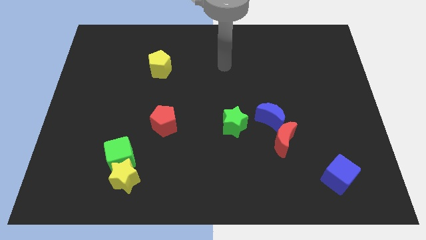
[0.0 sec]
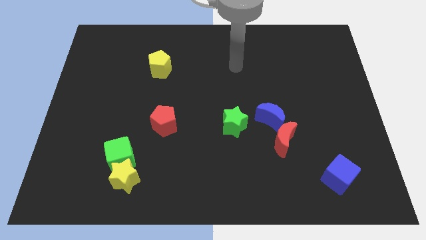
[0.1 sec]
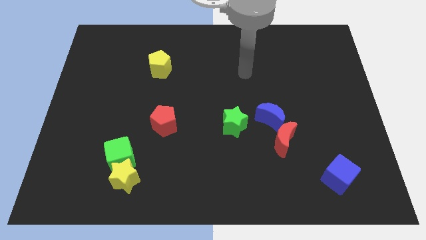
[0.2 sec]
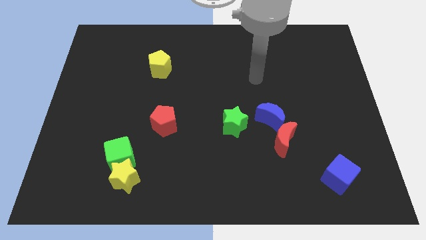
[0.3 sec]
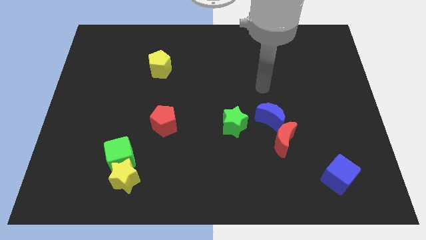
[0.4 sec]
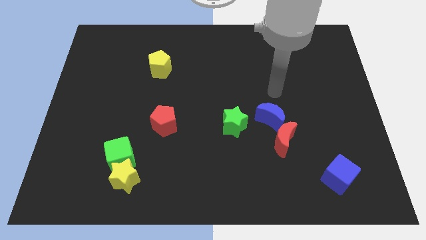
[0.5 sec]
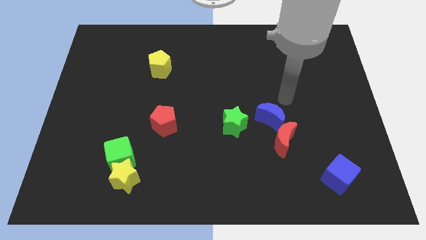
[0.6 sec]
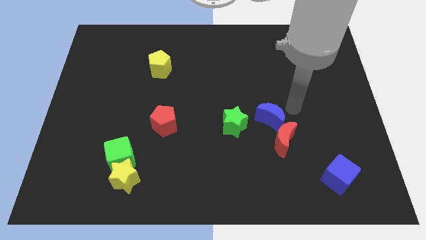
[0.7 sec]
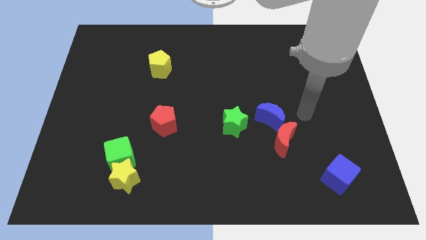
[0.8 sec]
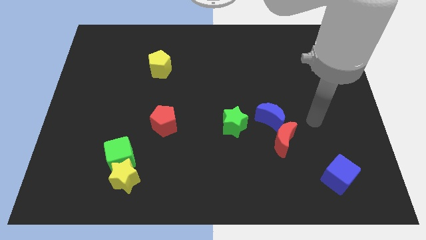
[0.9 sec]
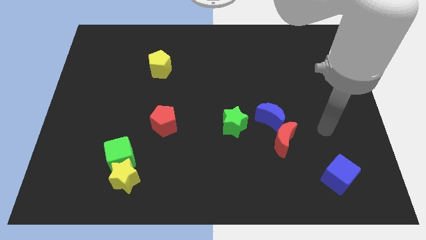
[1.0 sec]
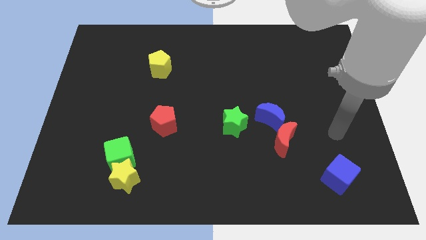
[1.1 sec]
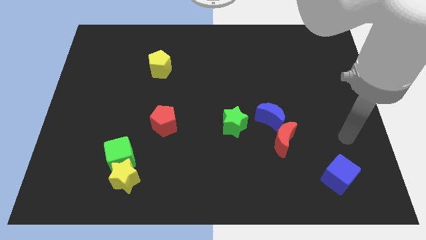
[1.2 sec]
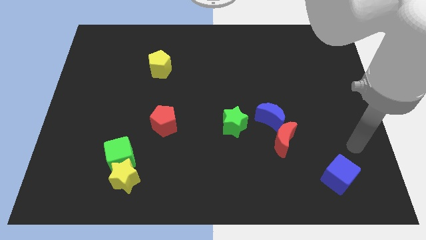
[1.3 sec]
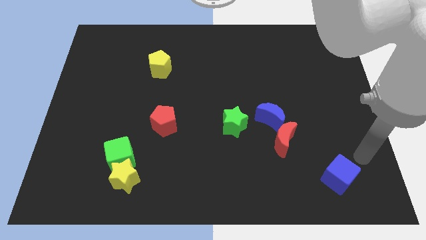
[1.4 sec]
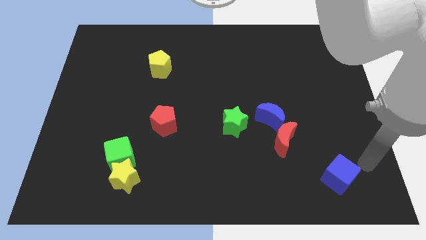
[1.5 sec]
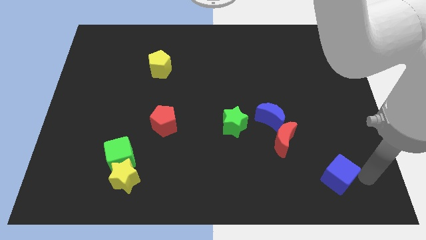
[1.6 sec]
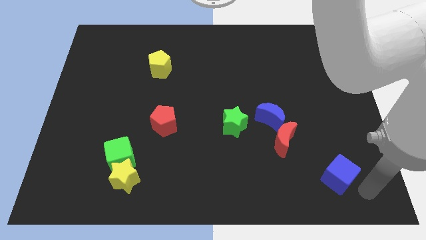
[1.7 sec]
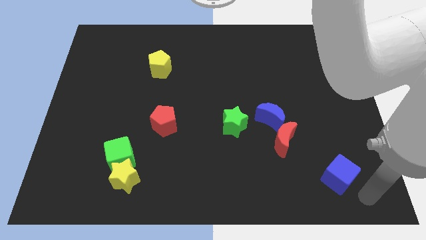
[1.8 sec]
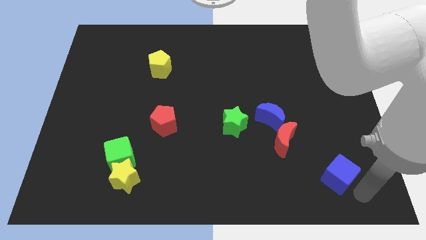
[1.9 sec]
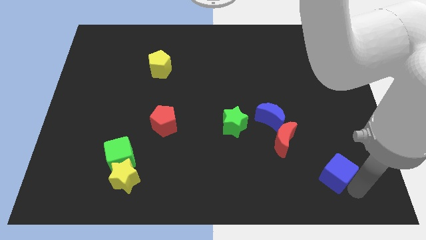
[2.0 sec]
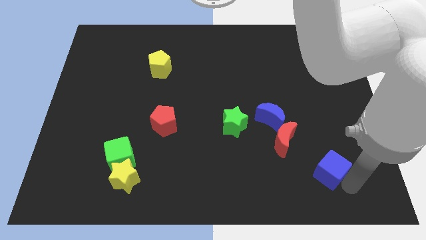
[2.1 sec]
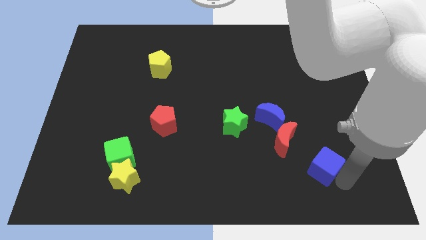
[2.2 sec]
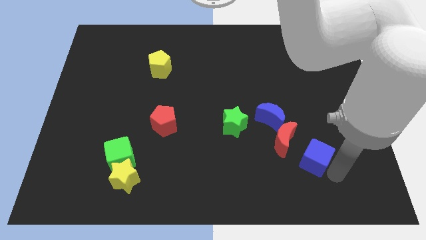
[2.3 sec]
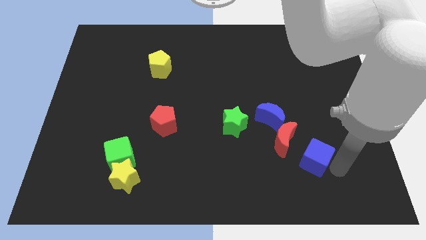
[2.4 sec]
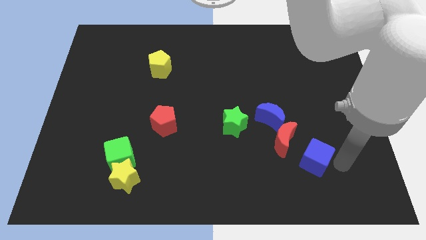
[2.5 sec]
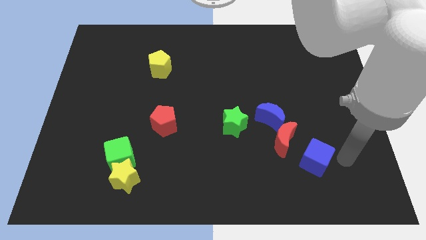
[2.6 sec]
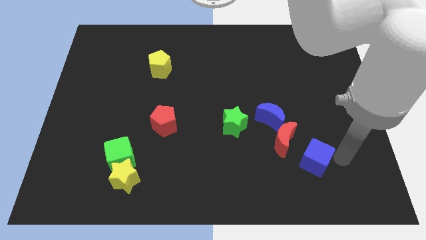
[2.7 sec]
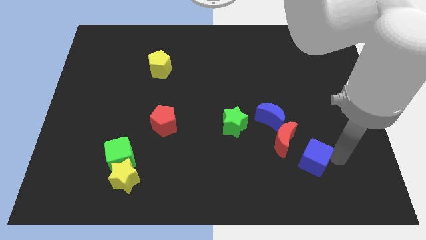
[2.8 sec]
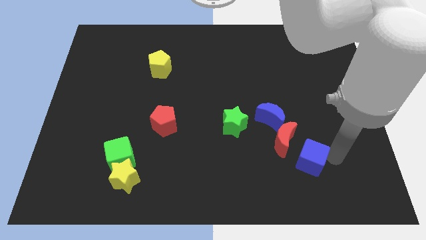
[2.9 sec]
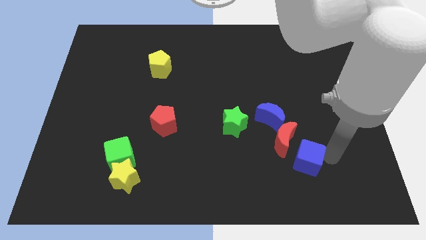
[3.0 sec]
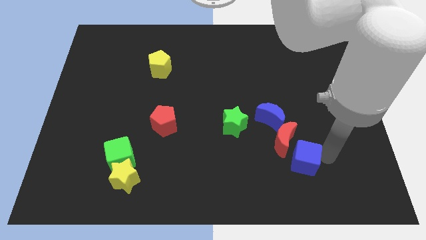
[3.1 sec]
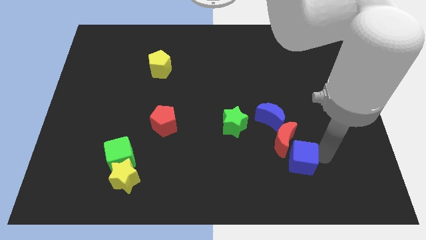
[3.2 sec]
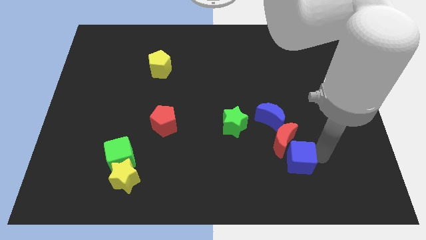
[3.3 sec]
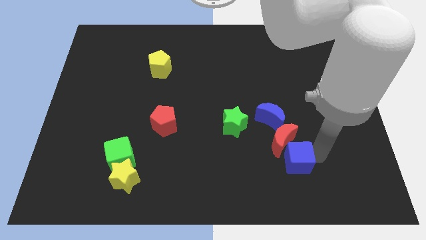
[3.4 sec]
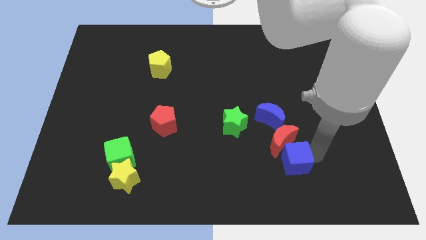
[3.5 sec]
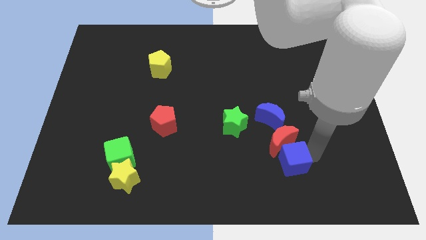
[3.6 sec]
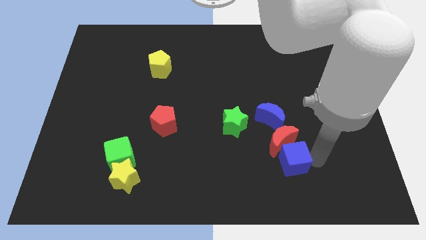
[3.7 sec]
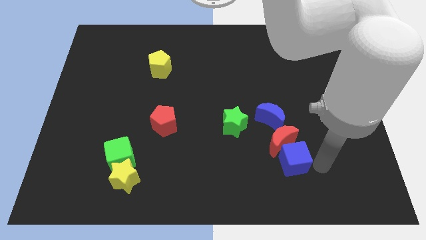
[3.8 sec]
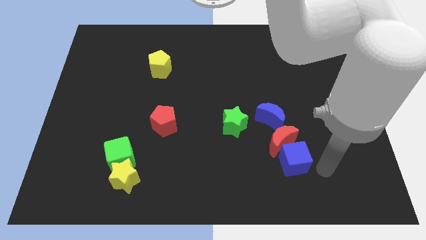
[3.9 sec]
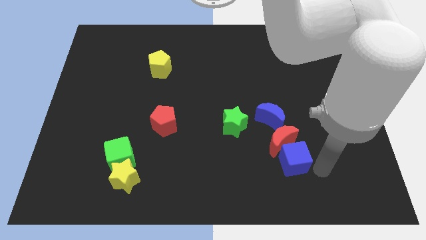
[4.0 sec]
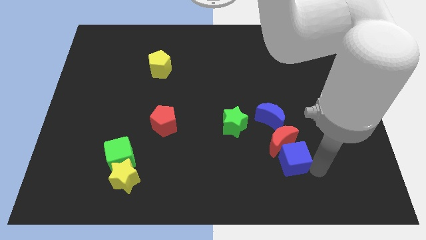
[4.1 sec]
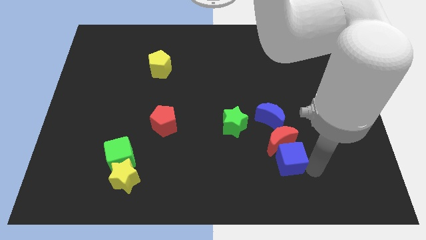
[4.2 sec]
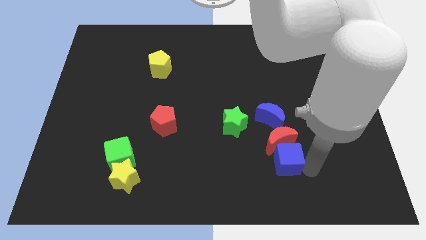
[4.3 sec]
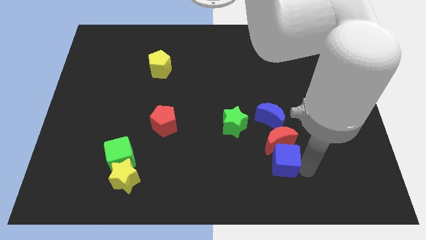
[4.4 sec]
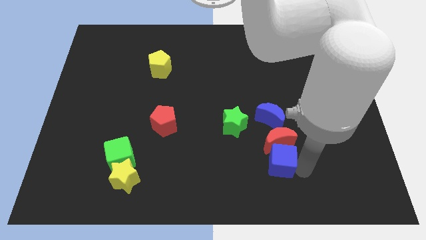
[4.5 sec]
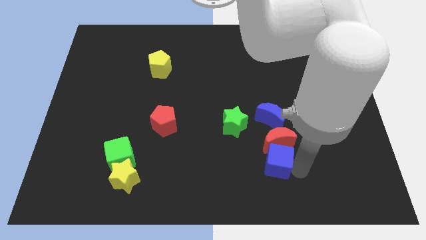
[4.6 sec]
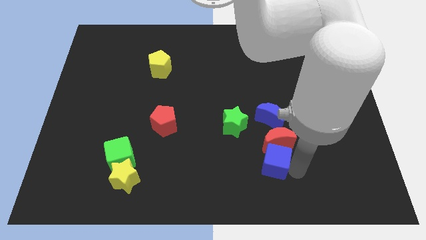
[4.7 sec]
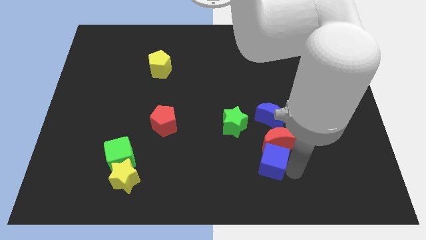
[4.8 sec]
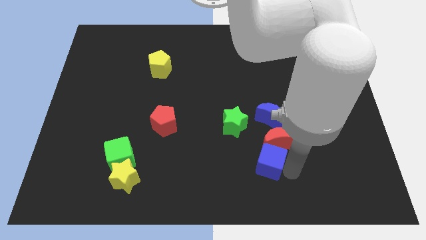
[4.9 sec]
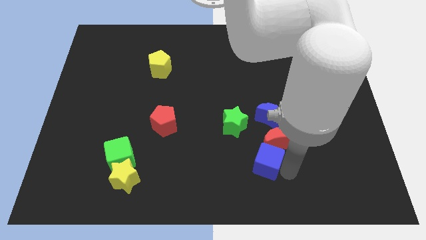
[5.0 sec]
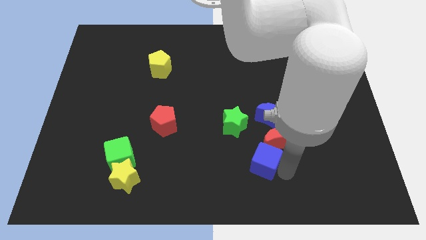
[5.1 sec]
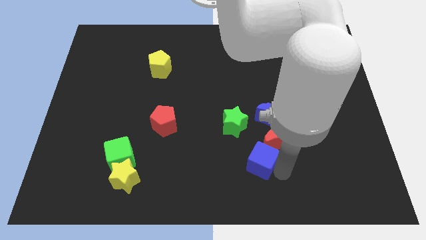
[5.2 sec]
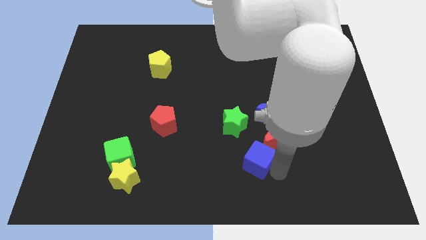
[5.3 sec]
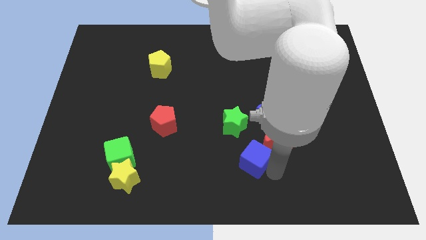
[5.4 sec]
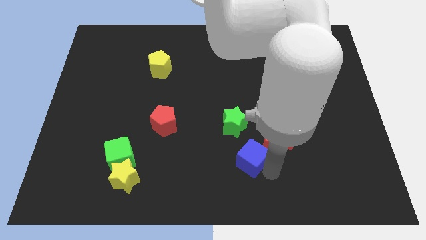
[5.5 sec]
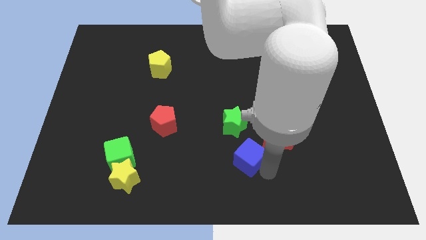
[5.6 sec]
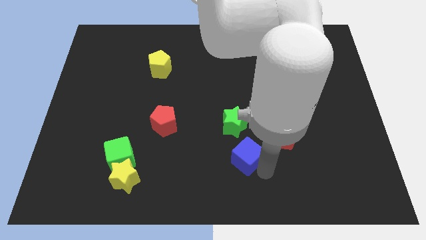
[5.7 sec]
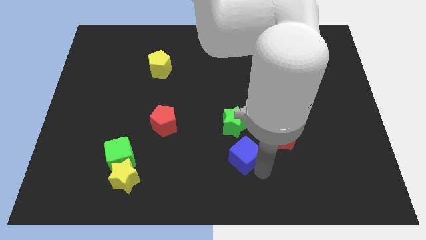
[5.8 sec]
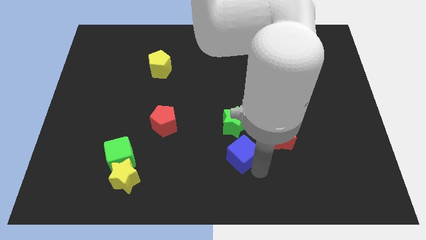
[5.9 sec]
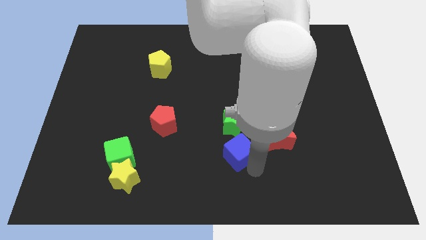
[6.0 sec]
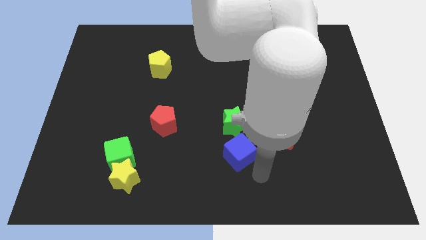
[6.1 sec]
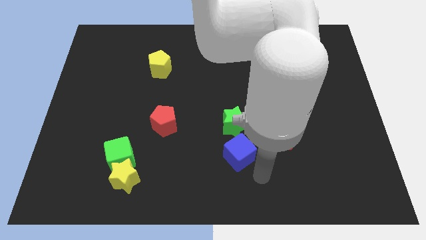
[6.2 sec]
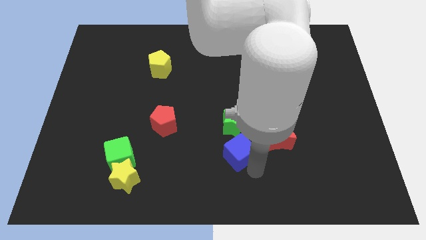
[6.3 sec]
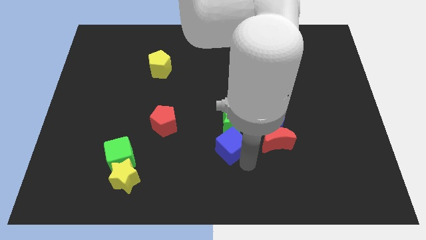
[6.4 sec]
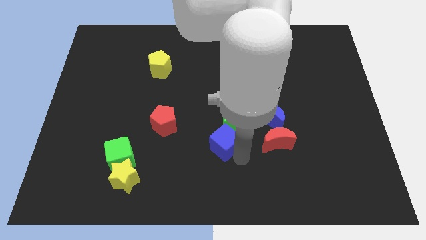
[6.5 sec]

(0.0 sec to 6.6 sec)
push the blue cube to the center
